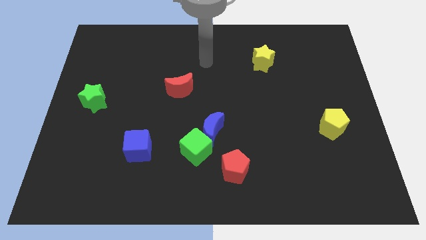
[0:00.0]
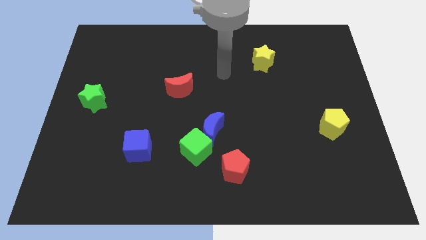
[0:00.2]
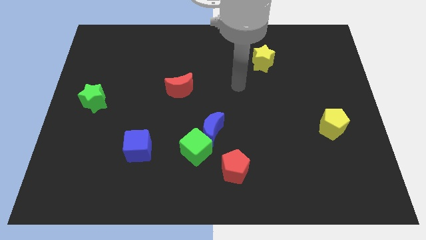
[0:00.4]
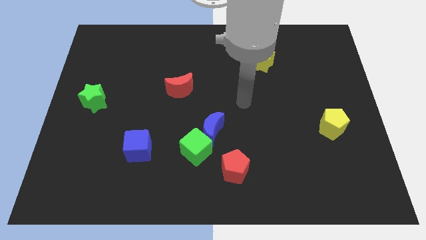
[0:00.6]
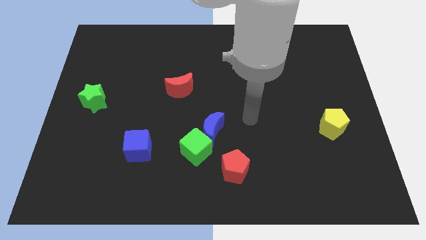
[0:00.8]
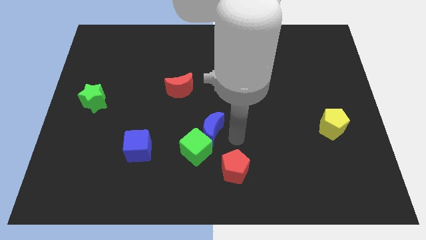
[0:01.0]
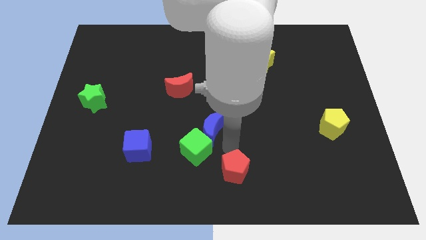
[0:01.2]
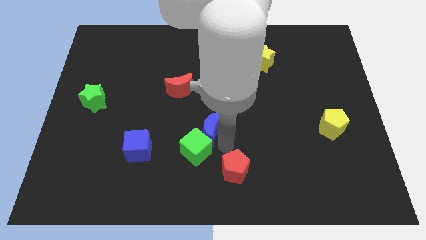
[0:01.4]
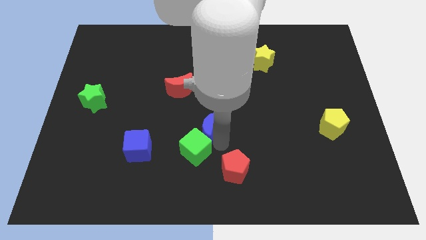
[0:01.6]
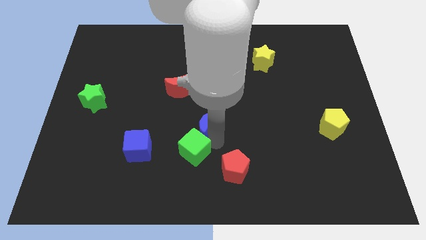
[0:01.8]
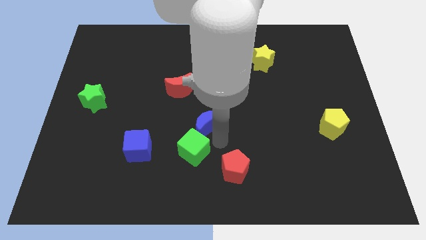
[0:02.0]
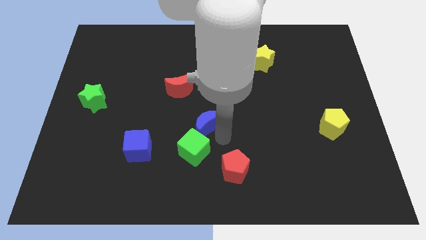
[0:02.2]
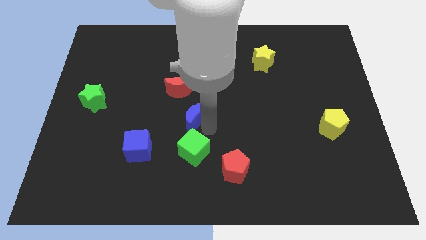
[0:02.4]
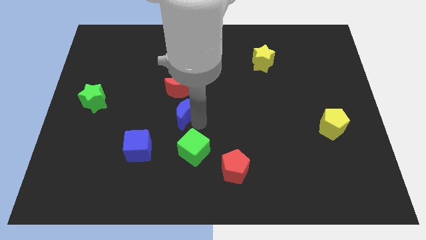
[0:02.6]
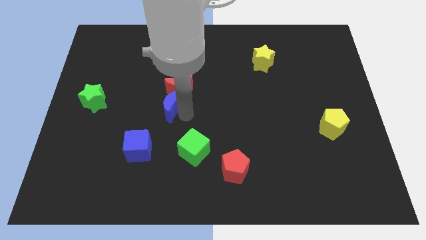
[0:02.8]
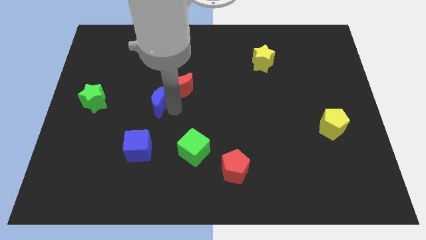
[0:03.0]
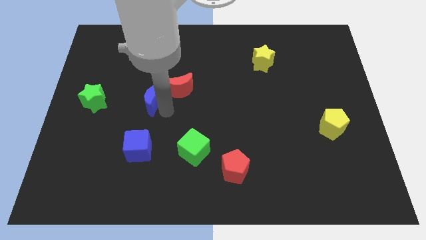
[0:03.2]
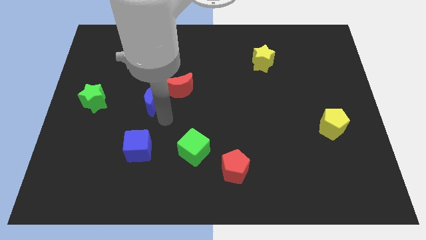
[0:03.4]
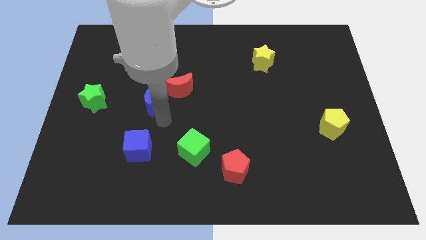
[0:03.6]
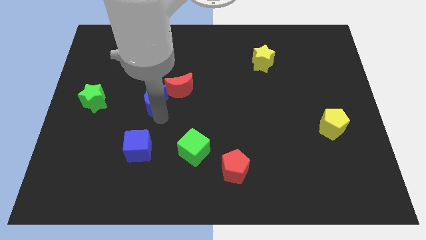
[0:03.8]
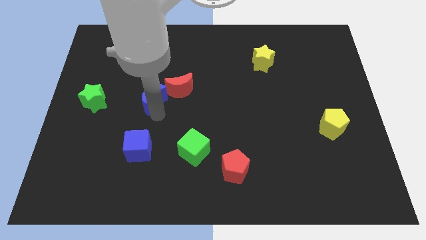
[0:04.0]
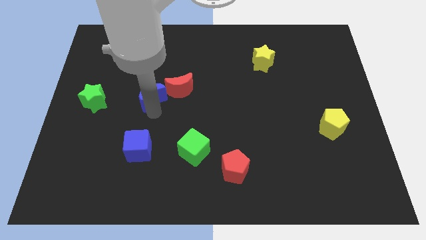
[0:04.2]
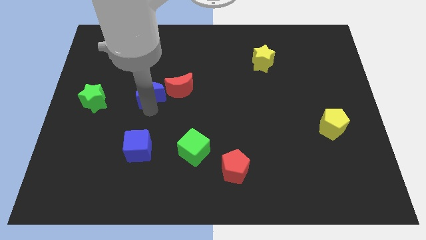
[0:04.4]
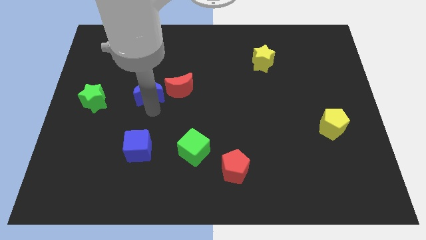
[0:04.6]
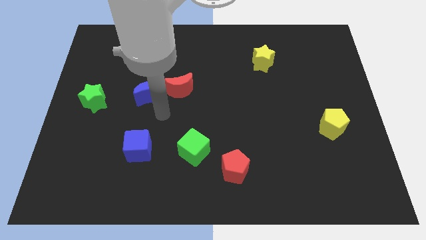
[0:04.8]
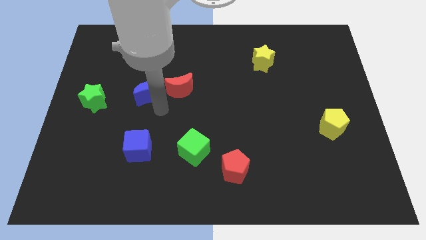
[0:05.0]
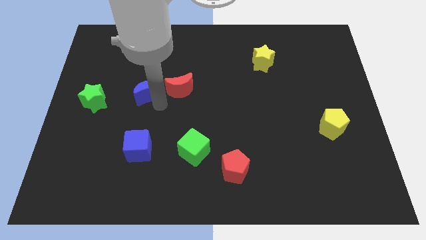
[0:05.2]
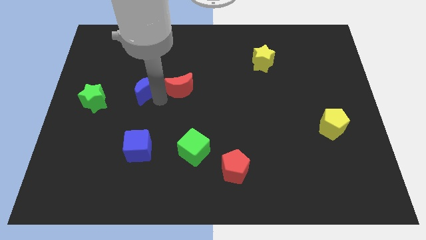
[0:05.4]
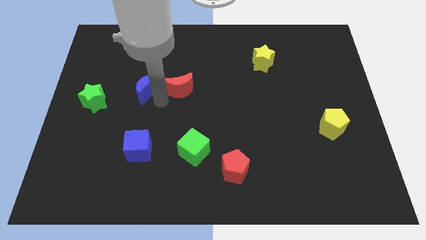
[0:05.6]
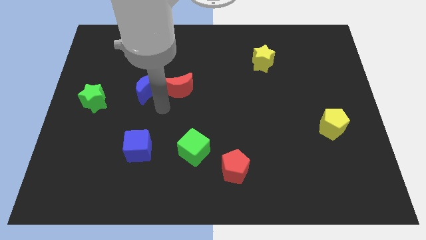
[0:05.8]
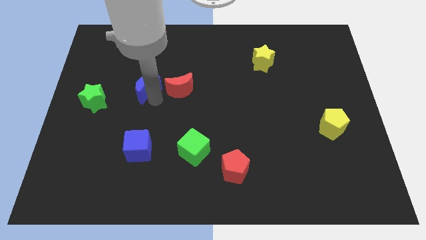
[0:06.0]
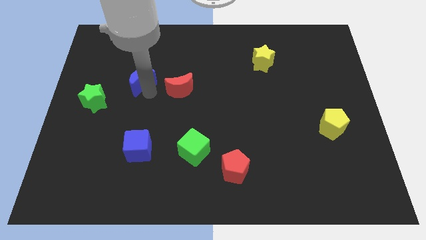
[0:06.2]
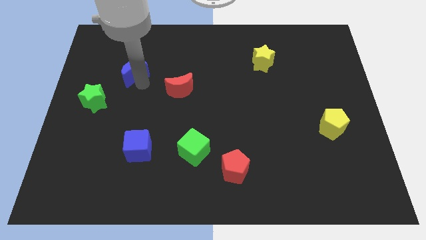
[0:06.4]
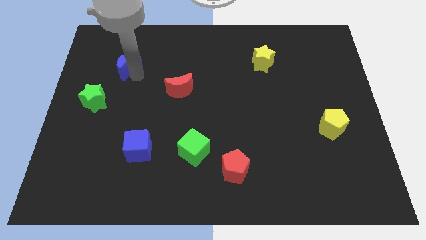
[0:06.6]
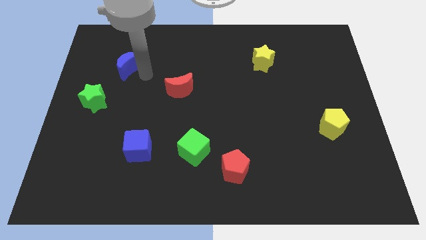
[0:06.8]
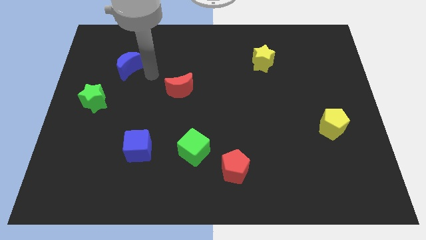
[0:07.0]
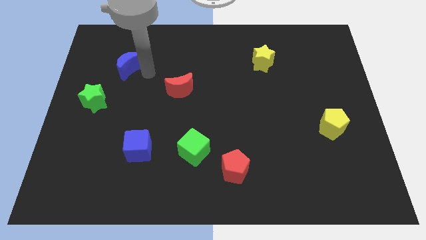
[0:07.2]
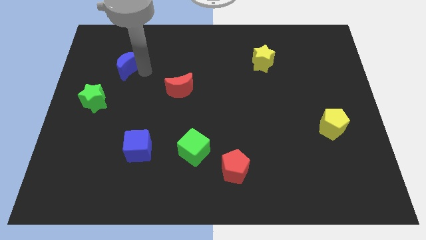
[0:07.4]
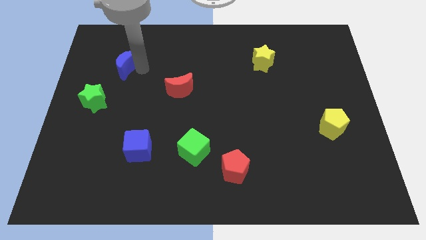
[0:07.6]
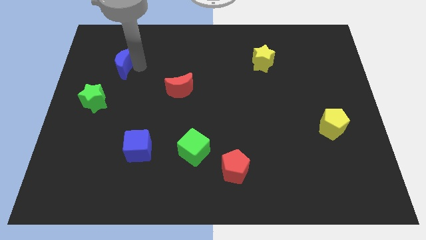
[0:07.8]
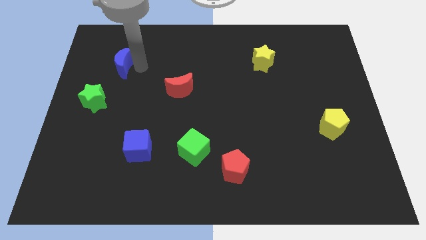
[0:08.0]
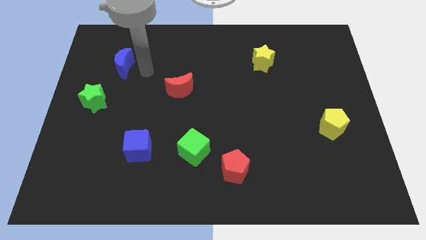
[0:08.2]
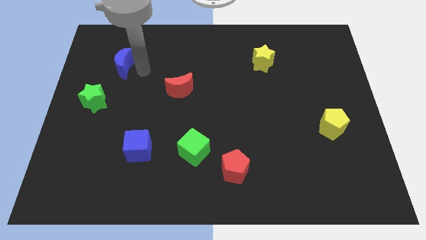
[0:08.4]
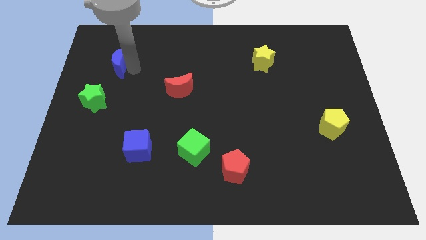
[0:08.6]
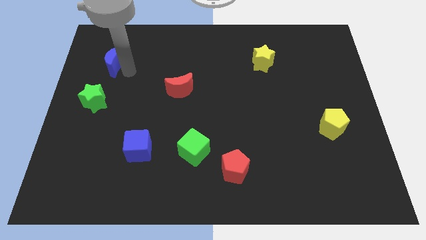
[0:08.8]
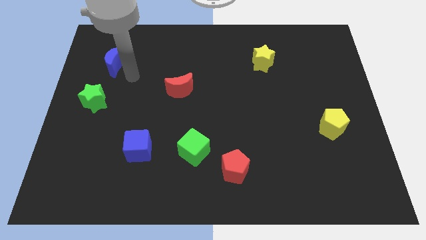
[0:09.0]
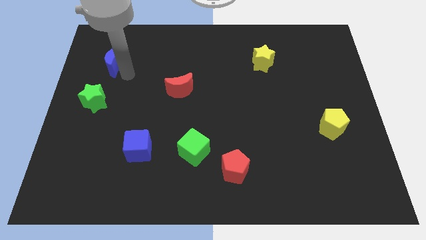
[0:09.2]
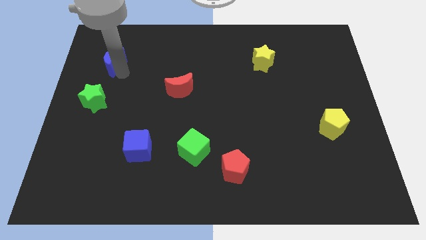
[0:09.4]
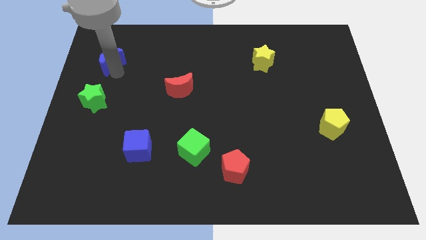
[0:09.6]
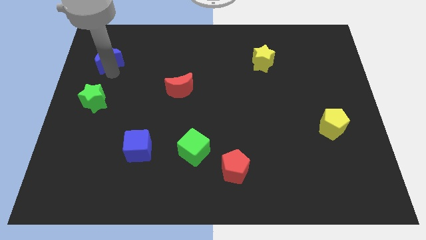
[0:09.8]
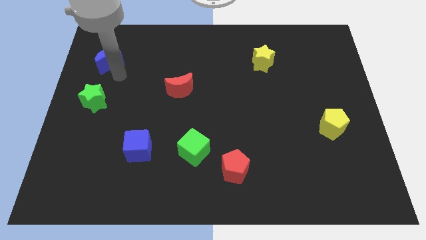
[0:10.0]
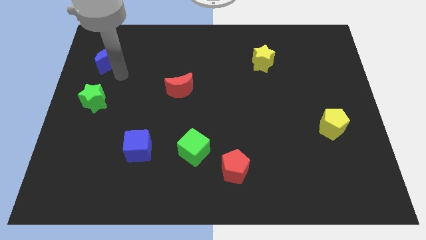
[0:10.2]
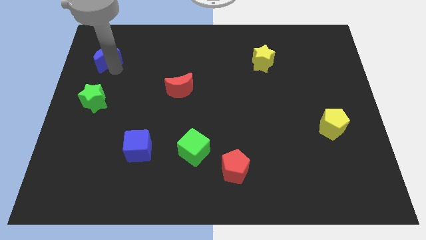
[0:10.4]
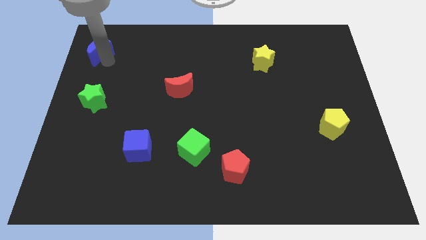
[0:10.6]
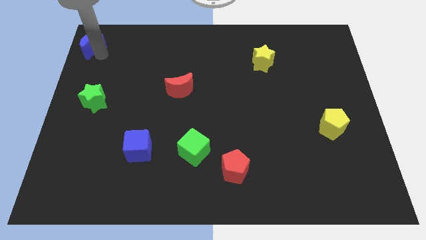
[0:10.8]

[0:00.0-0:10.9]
move the blue moon to the top left
